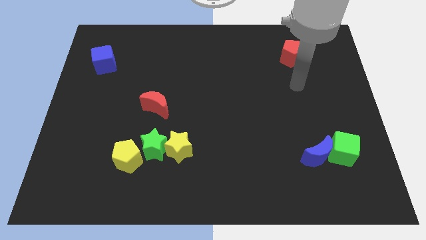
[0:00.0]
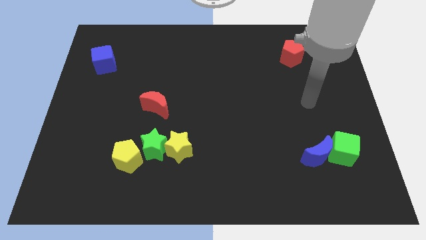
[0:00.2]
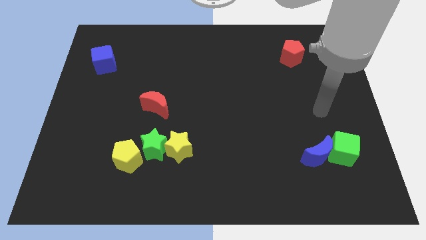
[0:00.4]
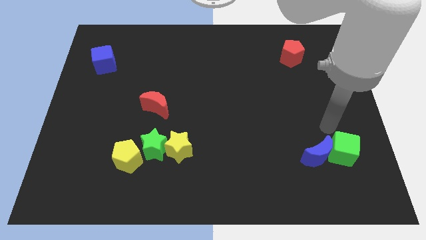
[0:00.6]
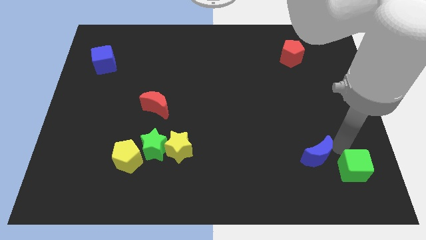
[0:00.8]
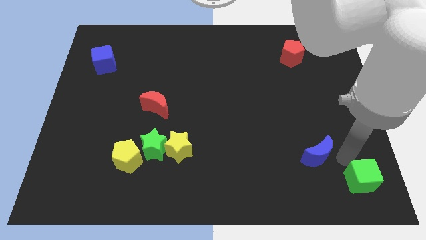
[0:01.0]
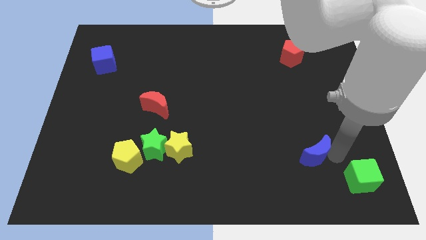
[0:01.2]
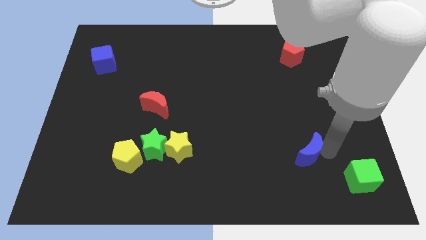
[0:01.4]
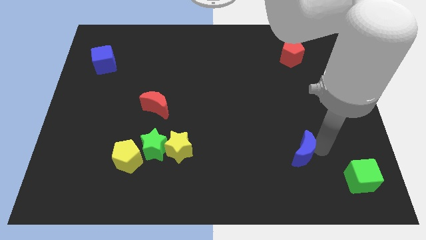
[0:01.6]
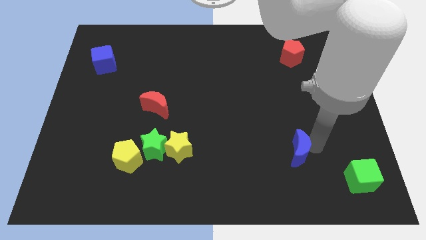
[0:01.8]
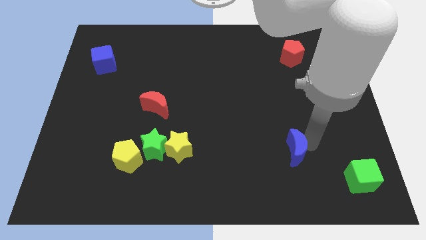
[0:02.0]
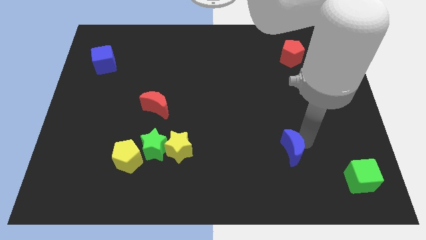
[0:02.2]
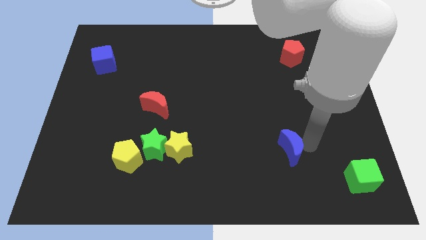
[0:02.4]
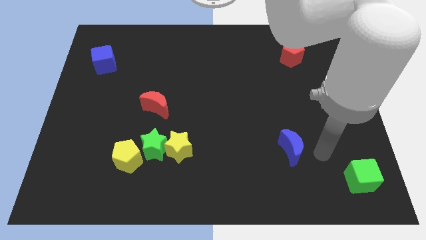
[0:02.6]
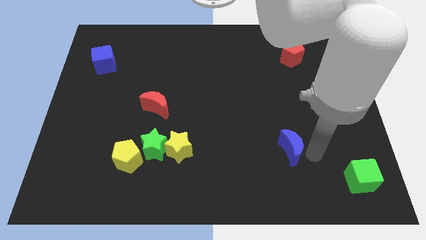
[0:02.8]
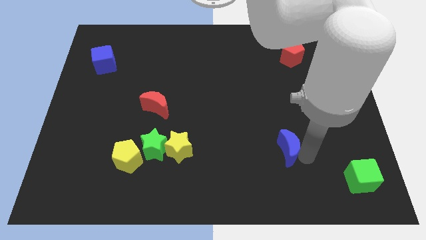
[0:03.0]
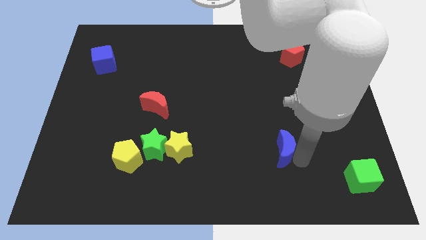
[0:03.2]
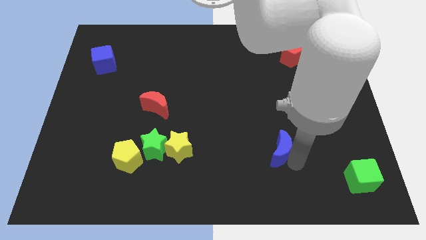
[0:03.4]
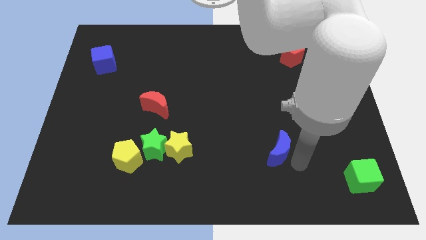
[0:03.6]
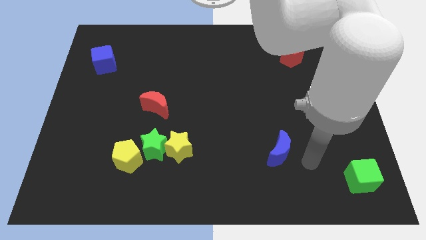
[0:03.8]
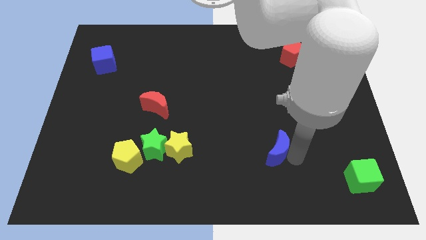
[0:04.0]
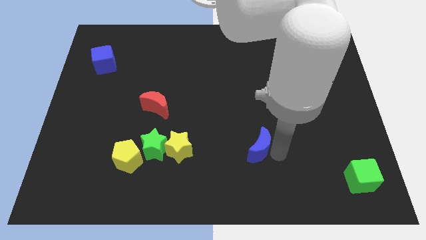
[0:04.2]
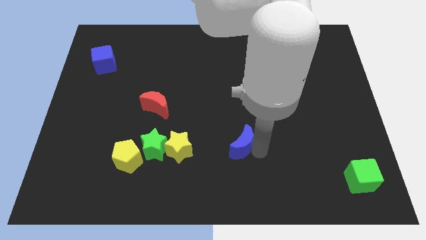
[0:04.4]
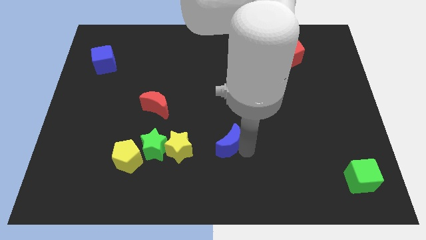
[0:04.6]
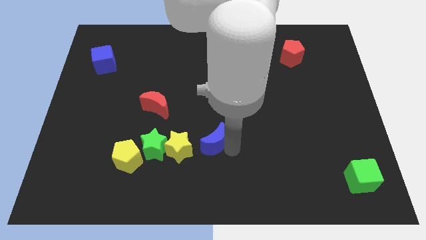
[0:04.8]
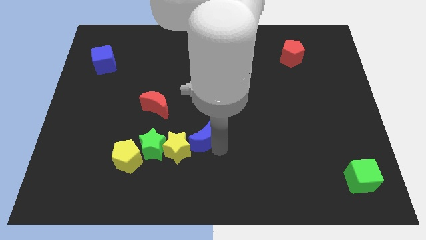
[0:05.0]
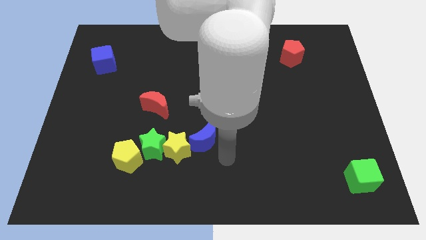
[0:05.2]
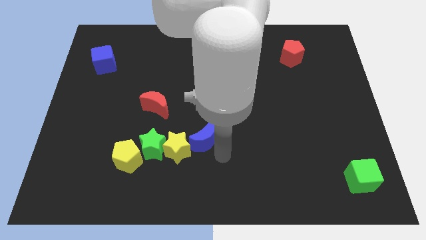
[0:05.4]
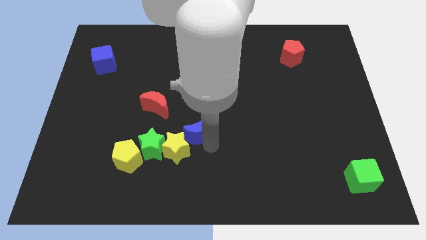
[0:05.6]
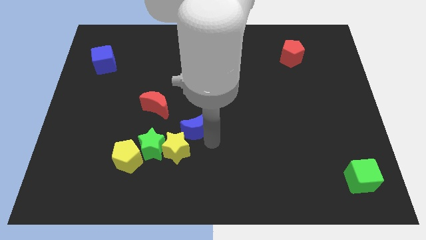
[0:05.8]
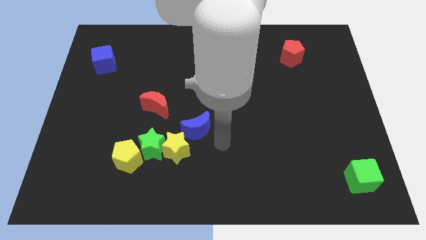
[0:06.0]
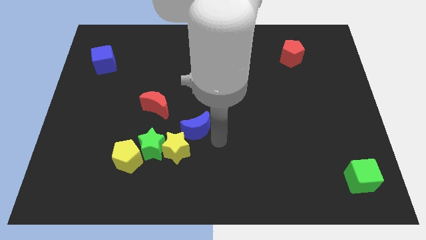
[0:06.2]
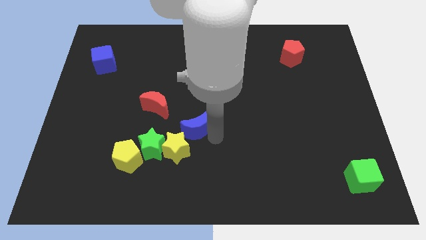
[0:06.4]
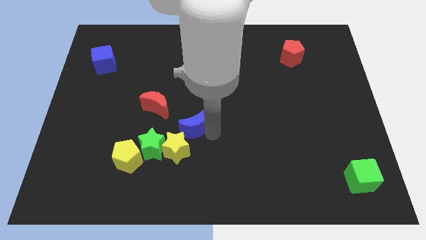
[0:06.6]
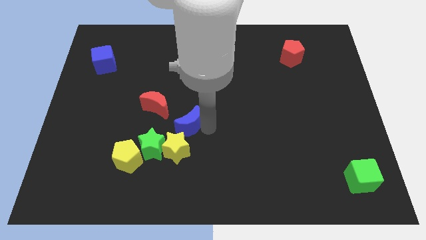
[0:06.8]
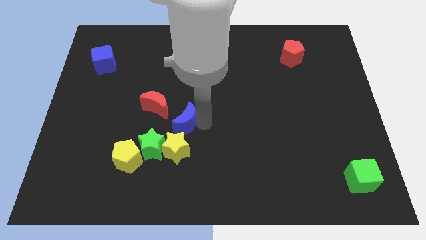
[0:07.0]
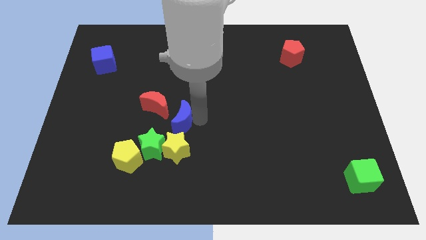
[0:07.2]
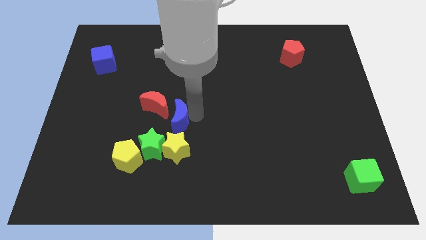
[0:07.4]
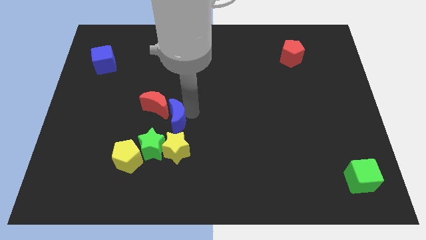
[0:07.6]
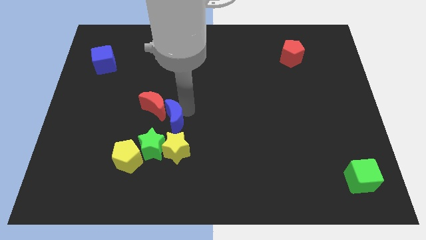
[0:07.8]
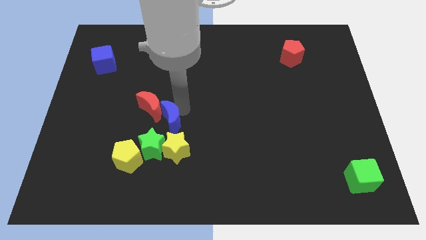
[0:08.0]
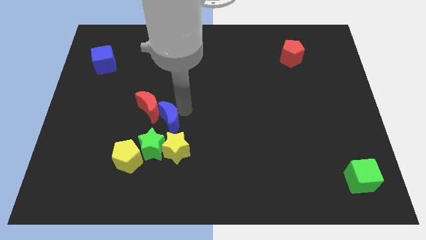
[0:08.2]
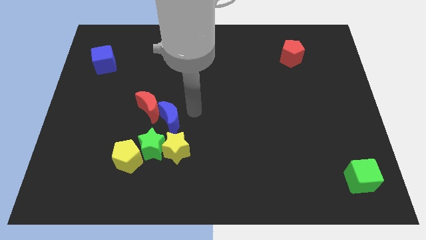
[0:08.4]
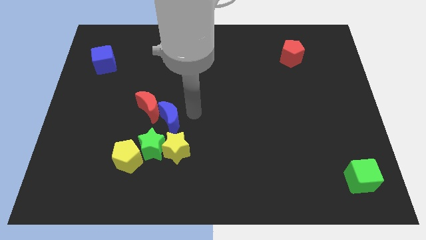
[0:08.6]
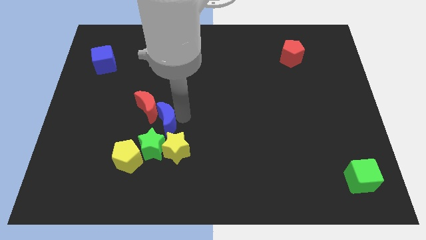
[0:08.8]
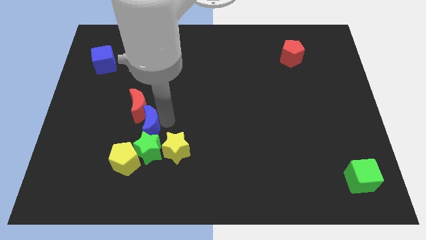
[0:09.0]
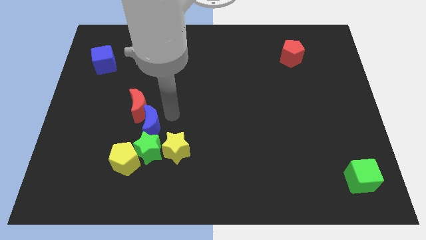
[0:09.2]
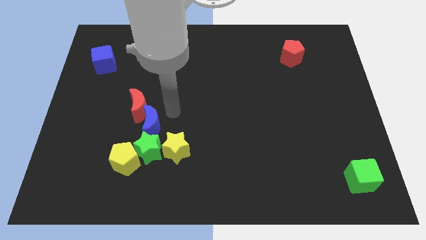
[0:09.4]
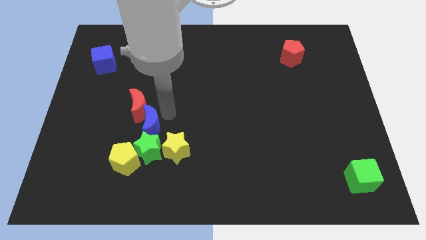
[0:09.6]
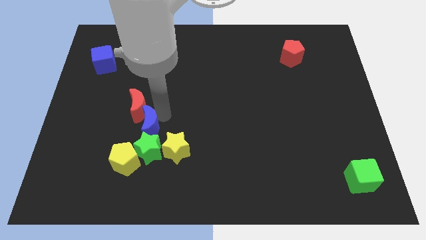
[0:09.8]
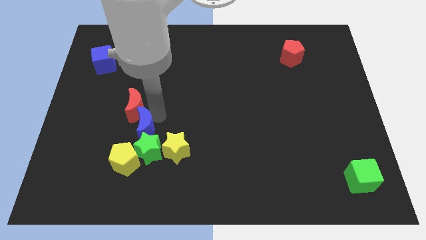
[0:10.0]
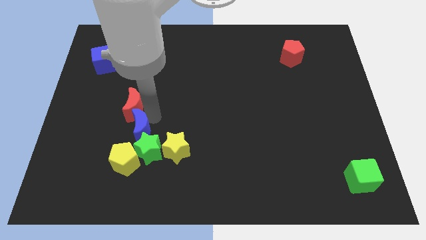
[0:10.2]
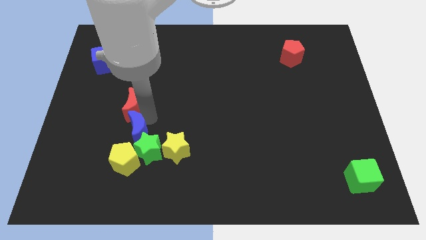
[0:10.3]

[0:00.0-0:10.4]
put the blue moon left of the yellow star

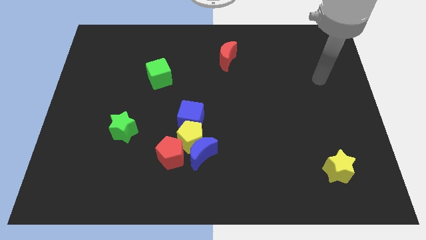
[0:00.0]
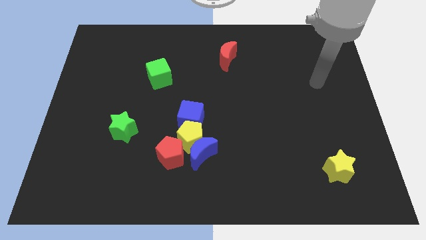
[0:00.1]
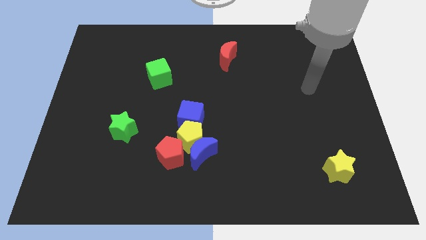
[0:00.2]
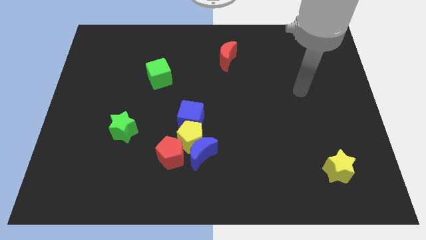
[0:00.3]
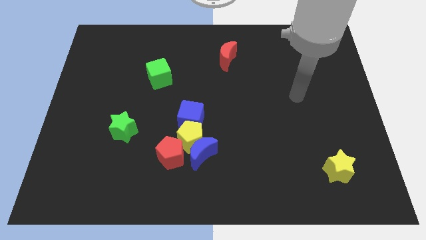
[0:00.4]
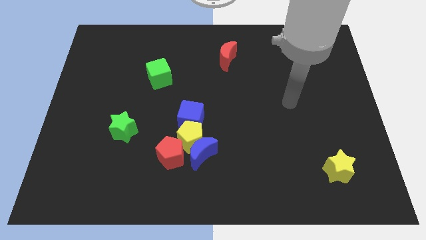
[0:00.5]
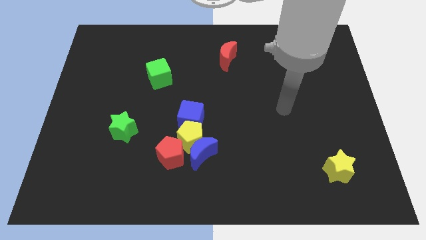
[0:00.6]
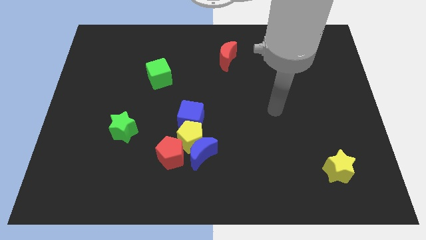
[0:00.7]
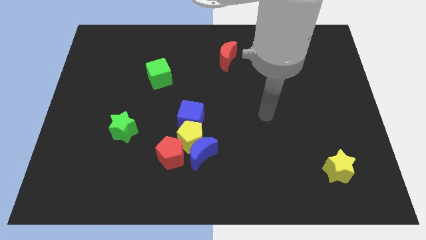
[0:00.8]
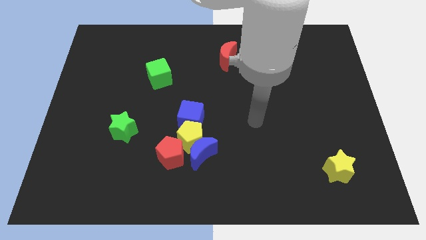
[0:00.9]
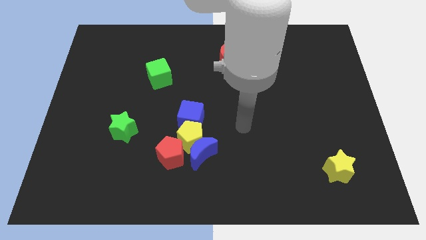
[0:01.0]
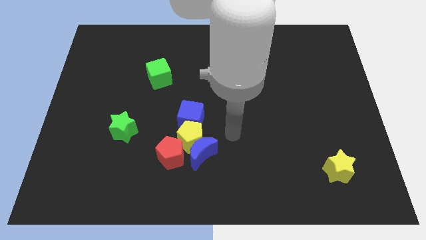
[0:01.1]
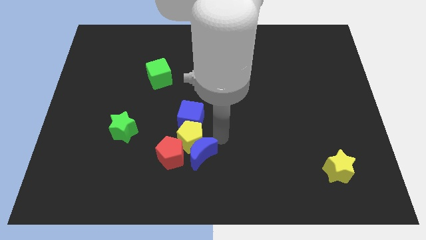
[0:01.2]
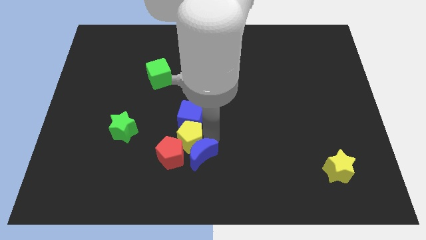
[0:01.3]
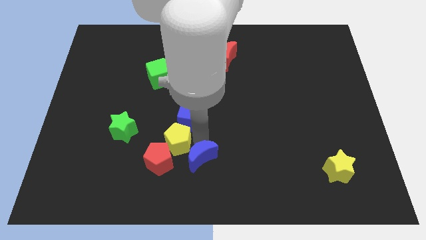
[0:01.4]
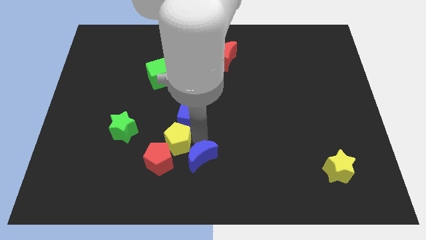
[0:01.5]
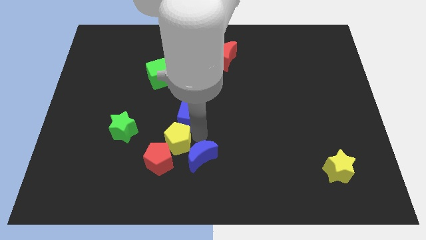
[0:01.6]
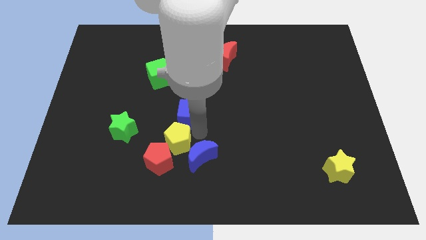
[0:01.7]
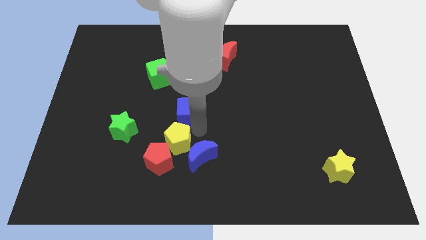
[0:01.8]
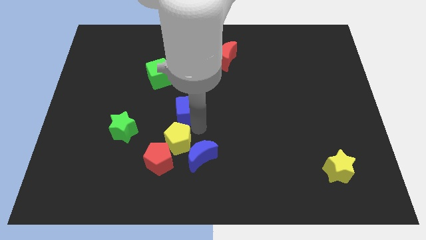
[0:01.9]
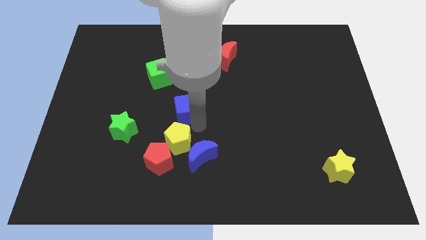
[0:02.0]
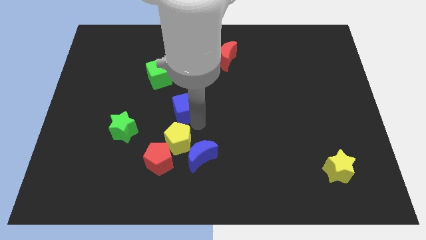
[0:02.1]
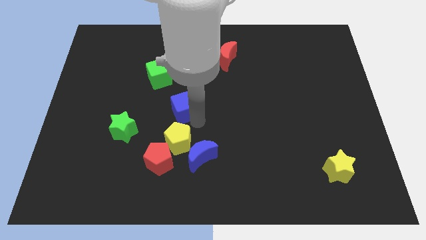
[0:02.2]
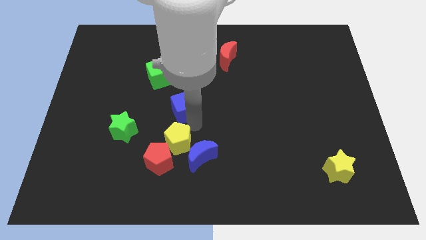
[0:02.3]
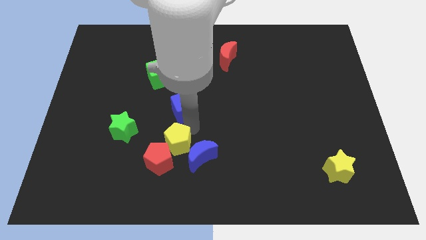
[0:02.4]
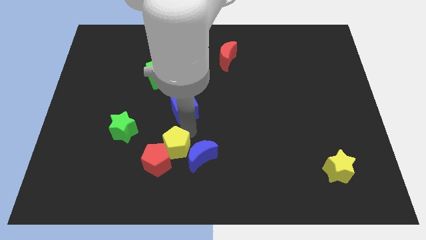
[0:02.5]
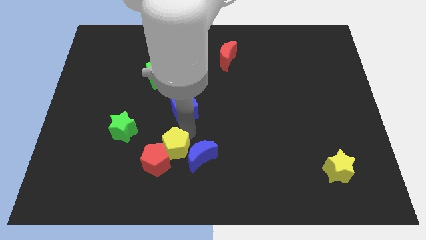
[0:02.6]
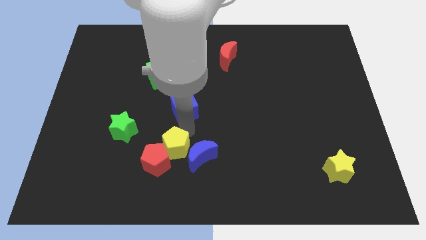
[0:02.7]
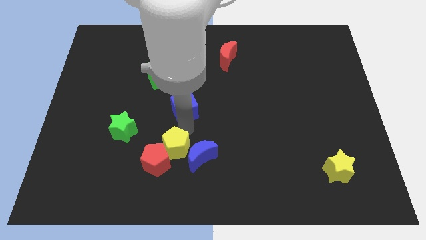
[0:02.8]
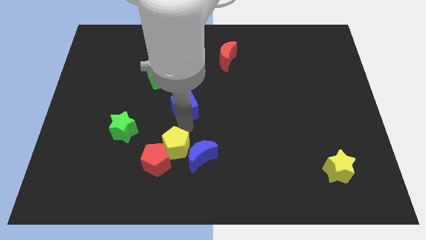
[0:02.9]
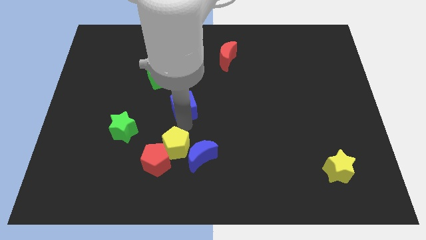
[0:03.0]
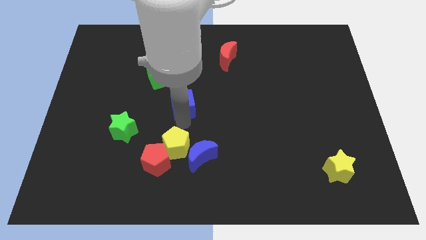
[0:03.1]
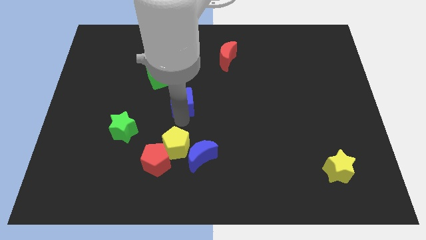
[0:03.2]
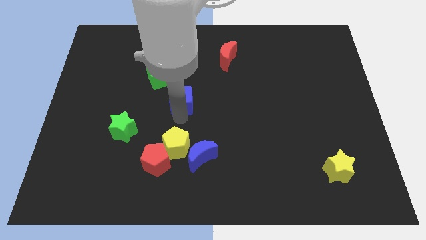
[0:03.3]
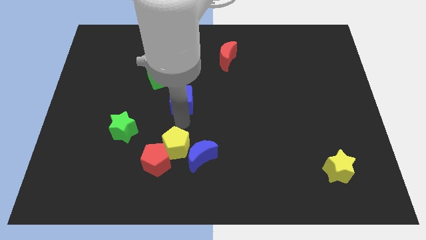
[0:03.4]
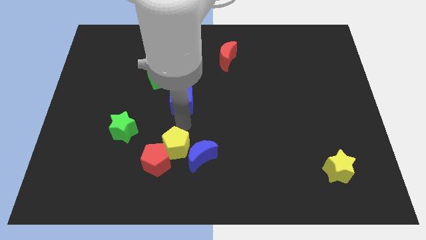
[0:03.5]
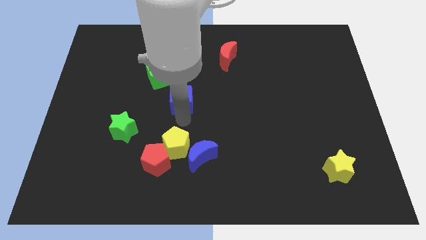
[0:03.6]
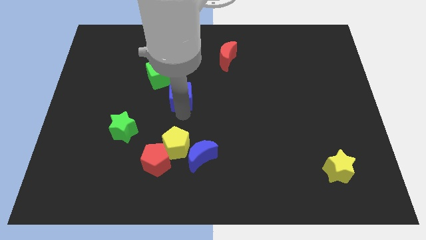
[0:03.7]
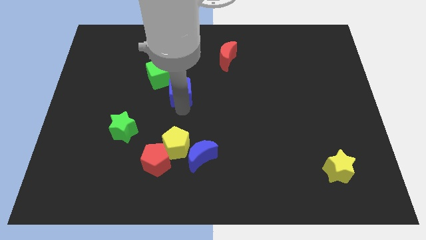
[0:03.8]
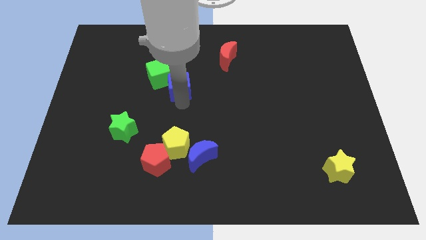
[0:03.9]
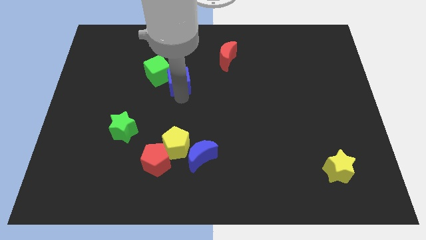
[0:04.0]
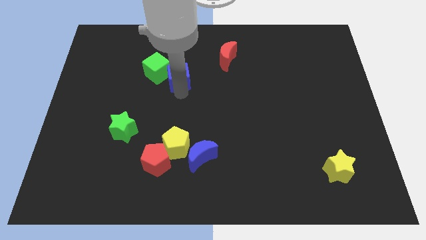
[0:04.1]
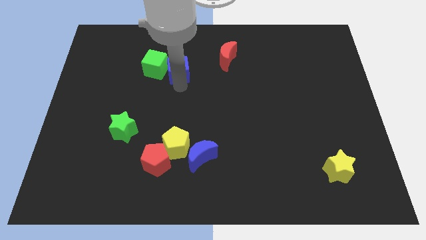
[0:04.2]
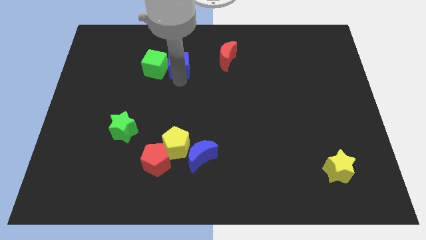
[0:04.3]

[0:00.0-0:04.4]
put the blue cube to the top right of the green cube
